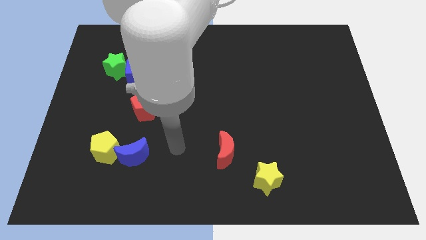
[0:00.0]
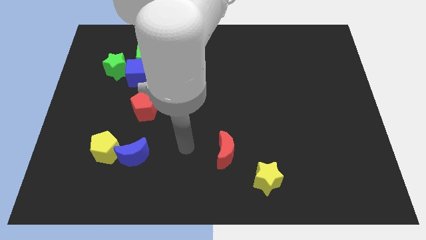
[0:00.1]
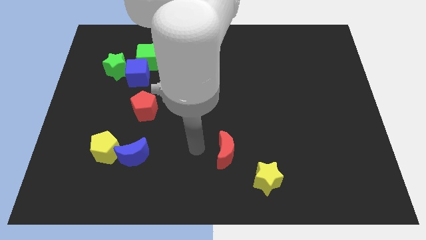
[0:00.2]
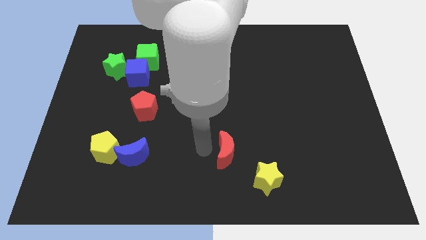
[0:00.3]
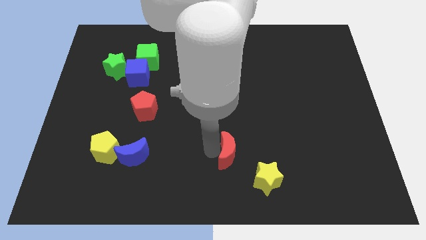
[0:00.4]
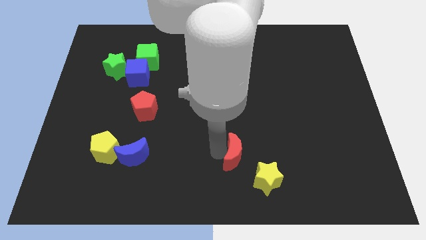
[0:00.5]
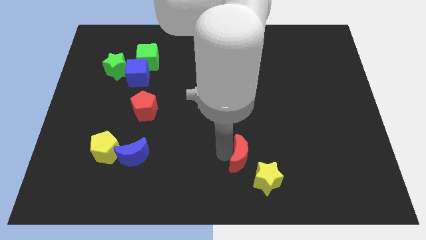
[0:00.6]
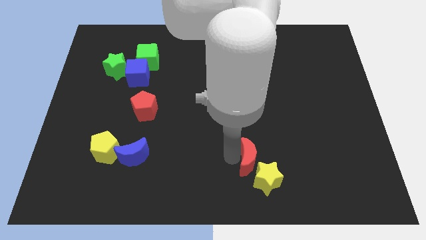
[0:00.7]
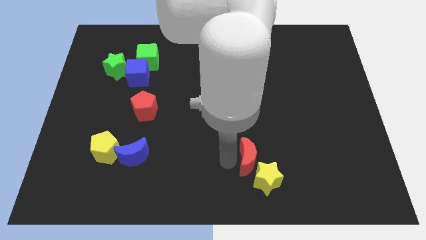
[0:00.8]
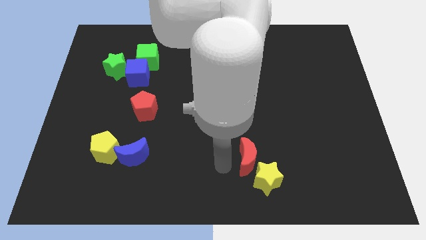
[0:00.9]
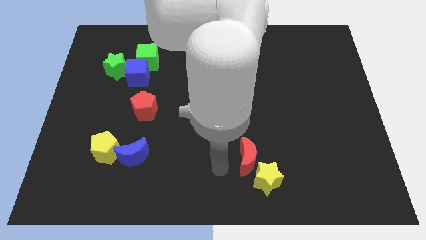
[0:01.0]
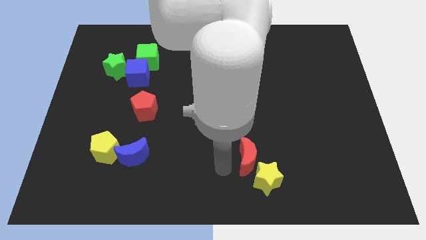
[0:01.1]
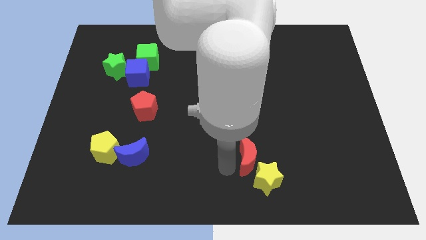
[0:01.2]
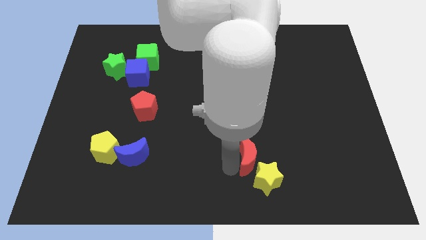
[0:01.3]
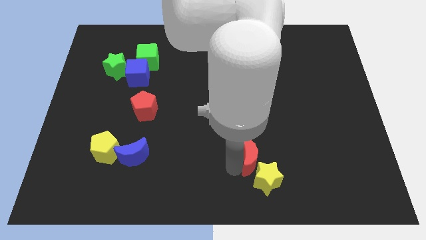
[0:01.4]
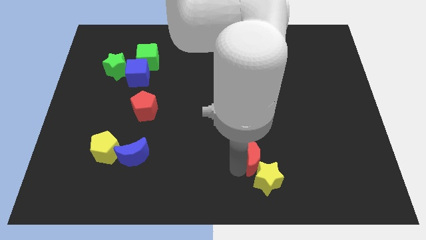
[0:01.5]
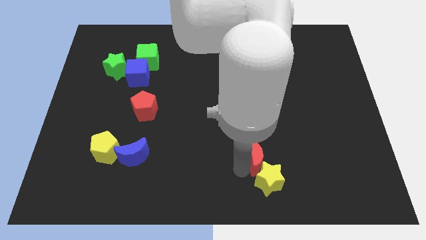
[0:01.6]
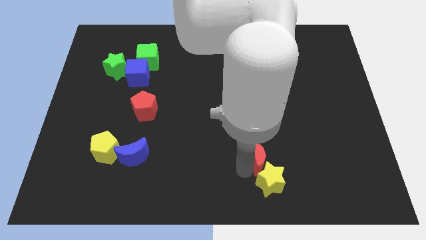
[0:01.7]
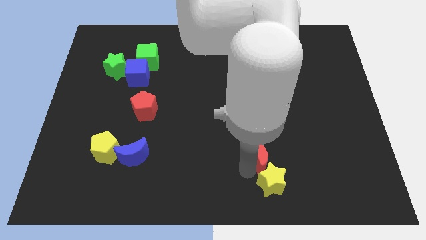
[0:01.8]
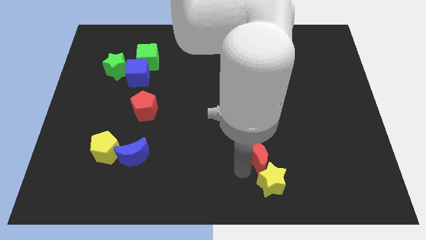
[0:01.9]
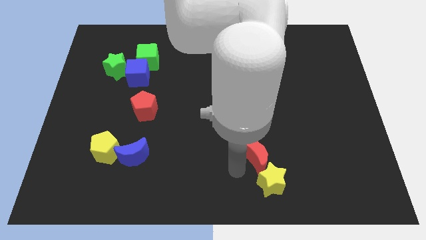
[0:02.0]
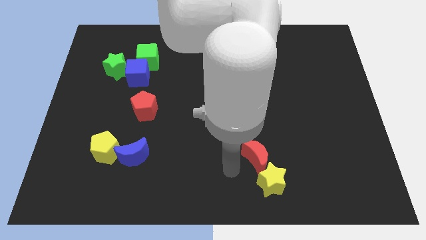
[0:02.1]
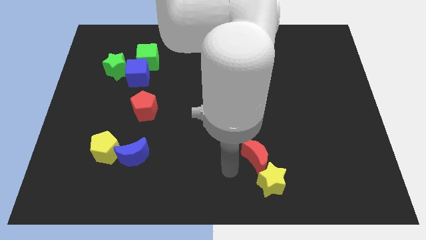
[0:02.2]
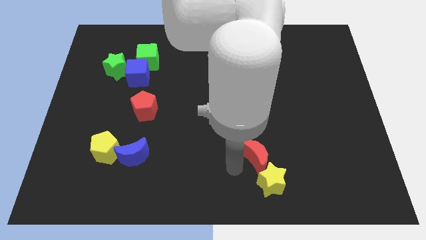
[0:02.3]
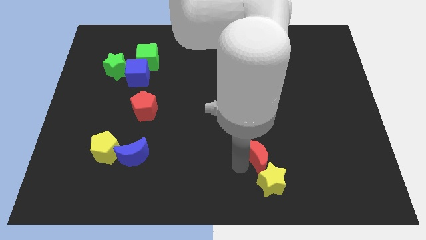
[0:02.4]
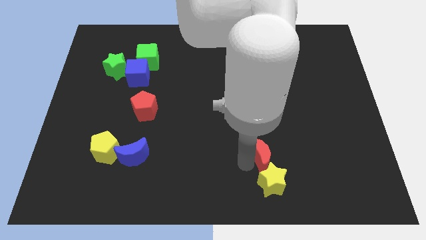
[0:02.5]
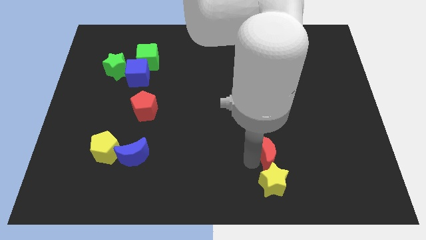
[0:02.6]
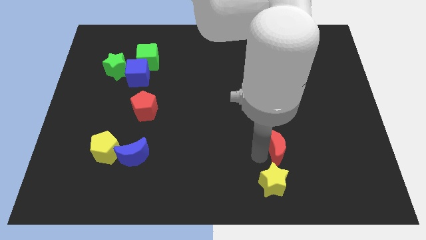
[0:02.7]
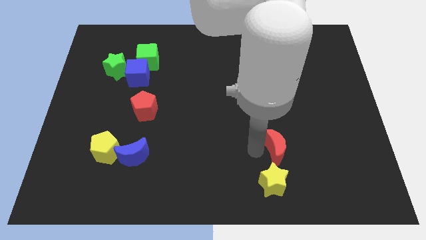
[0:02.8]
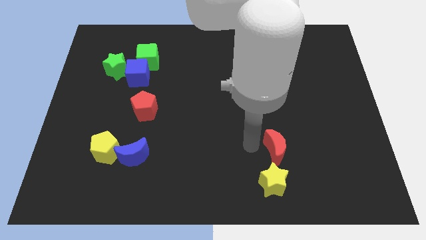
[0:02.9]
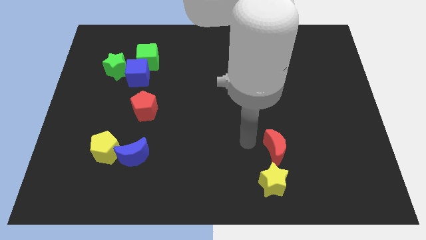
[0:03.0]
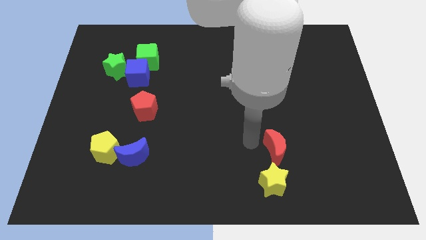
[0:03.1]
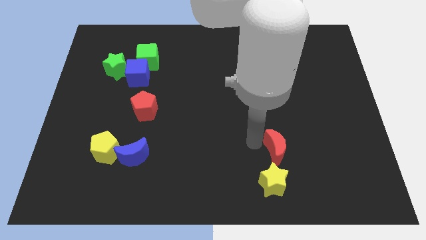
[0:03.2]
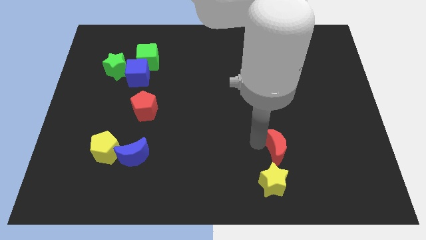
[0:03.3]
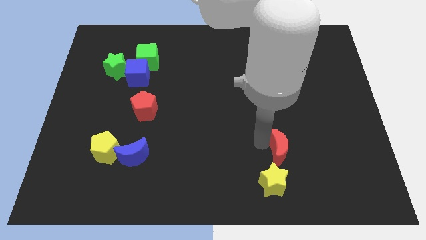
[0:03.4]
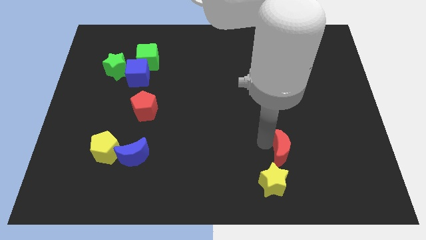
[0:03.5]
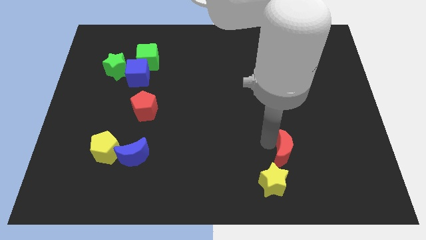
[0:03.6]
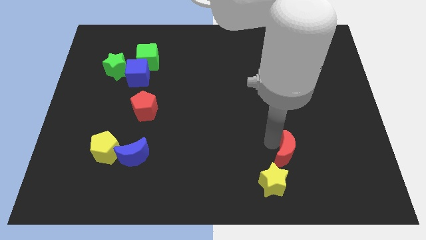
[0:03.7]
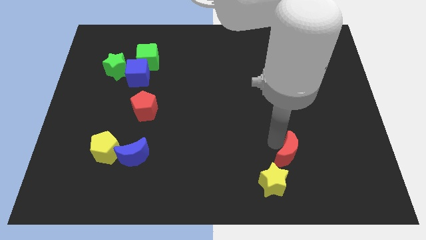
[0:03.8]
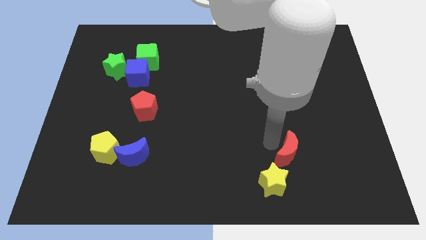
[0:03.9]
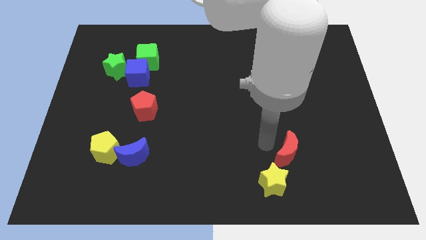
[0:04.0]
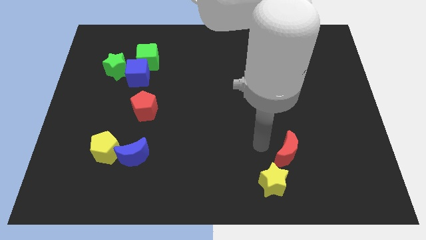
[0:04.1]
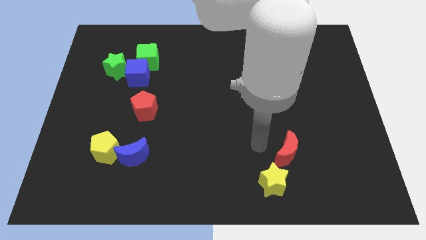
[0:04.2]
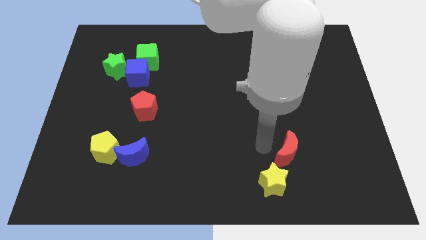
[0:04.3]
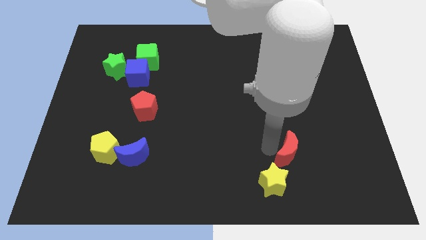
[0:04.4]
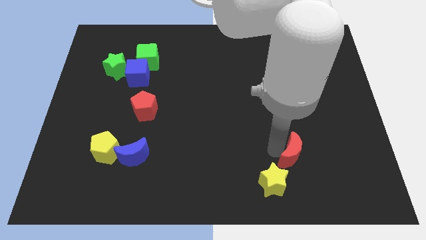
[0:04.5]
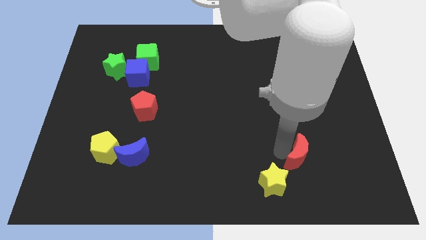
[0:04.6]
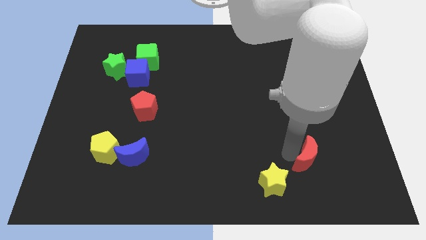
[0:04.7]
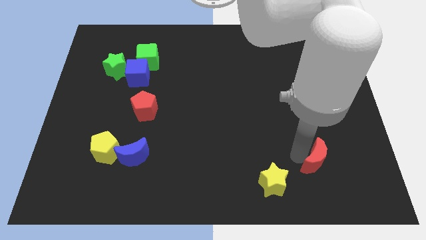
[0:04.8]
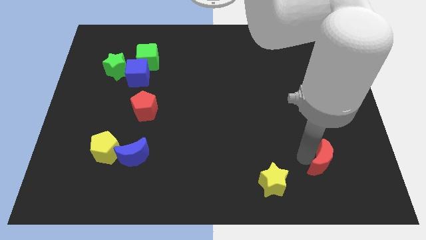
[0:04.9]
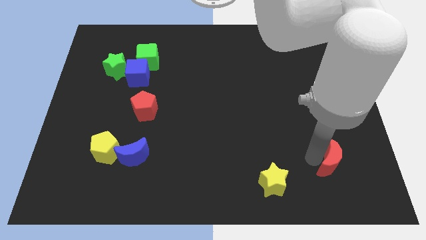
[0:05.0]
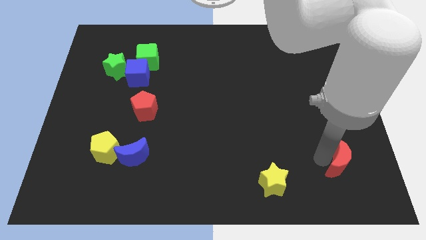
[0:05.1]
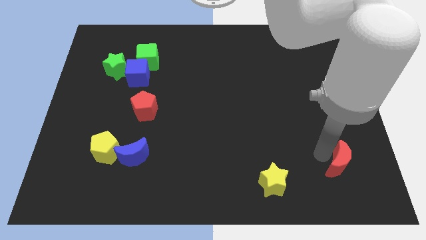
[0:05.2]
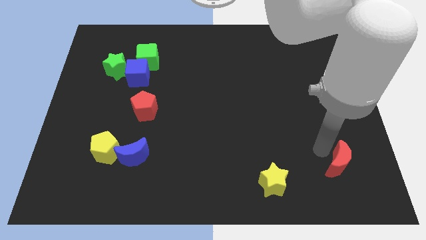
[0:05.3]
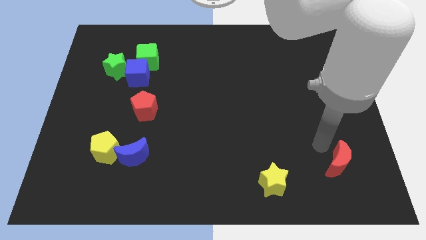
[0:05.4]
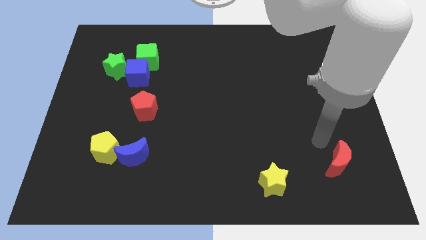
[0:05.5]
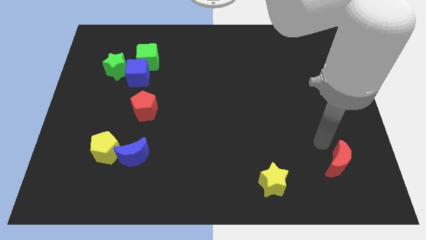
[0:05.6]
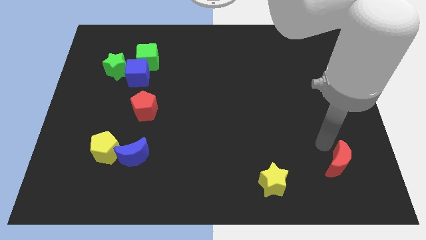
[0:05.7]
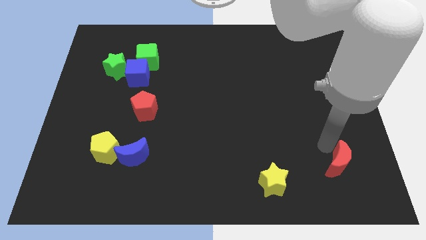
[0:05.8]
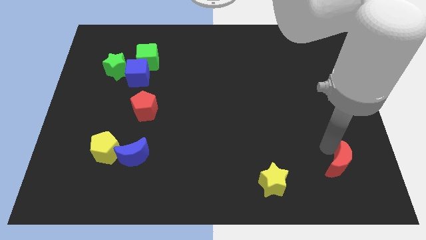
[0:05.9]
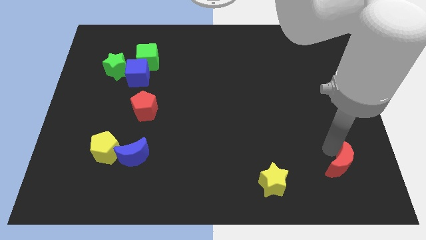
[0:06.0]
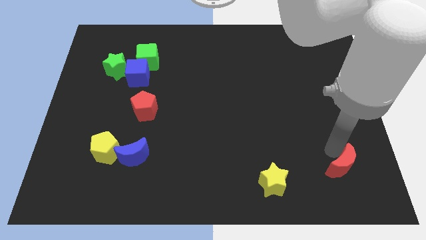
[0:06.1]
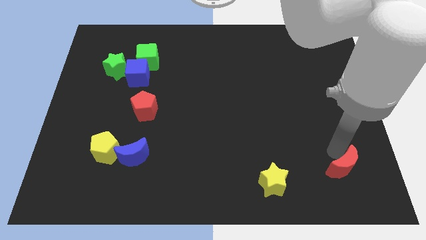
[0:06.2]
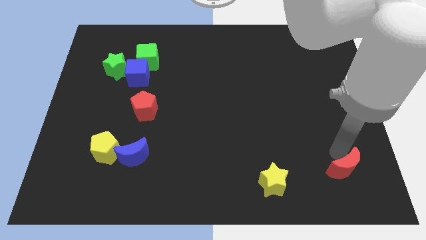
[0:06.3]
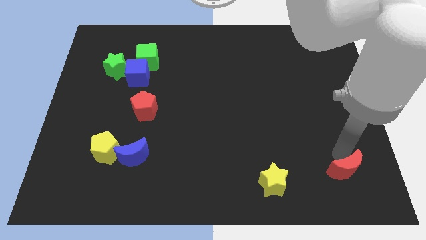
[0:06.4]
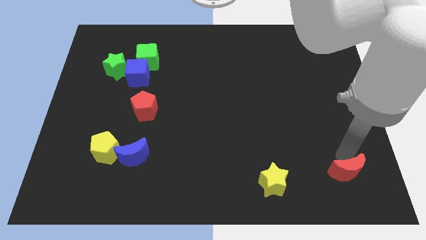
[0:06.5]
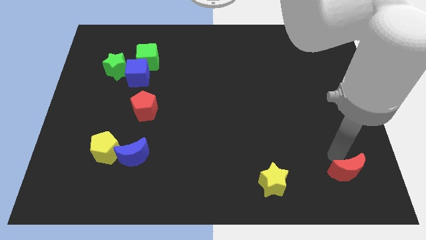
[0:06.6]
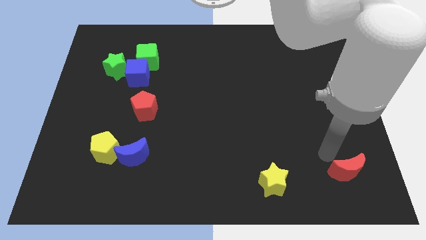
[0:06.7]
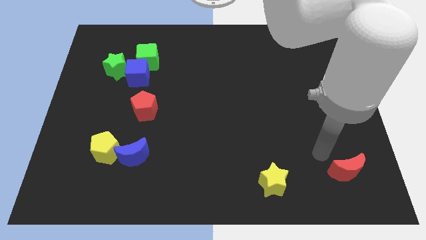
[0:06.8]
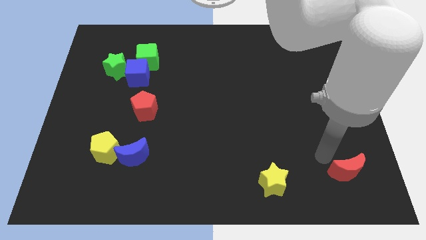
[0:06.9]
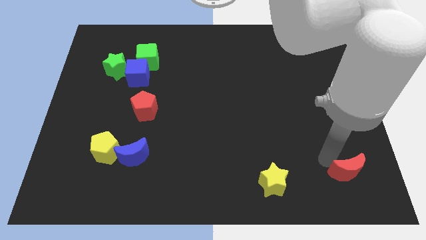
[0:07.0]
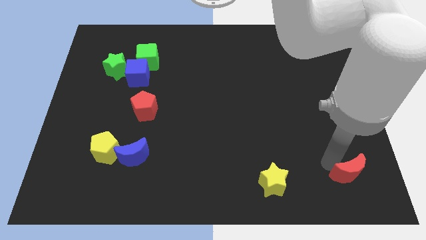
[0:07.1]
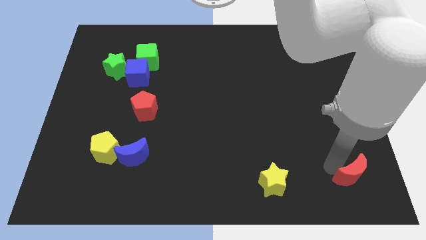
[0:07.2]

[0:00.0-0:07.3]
put the red moon to the bottom right of the board
